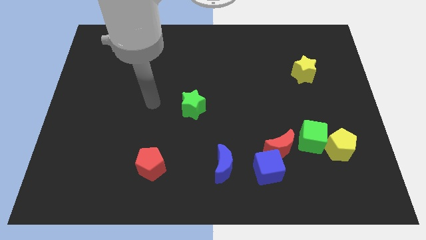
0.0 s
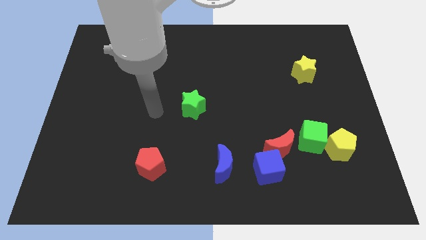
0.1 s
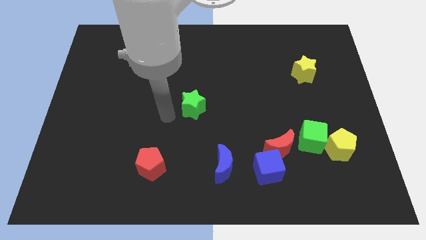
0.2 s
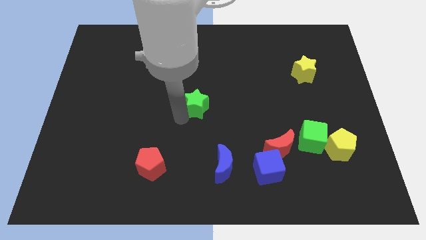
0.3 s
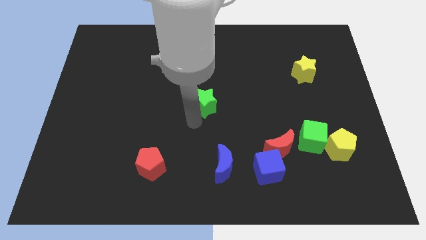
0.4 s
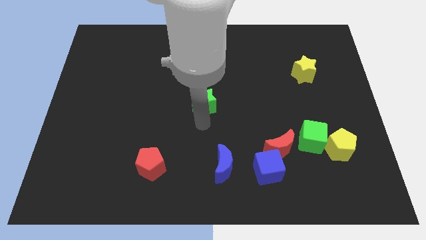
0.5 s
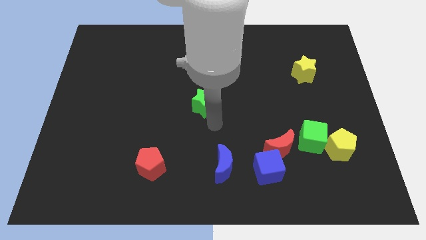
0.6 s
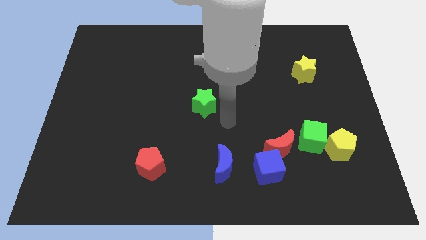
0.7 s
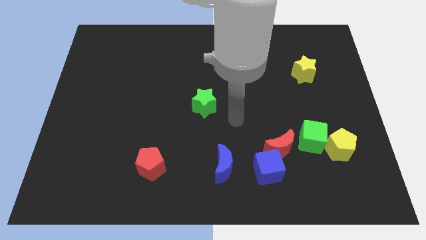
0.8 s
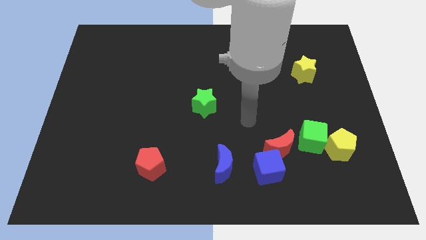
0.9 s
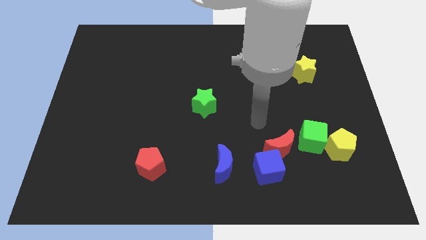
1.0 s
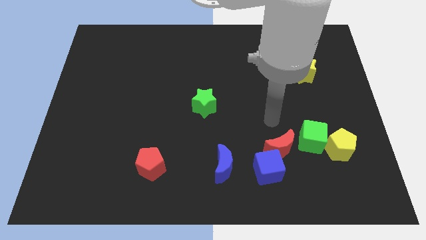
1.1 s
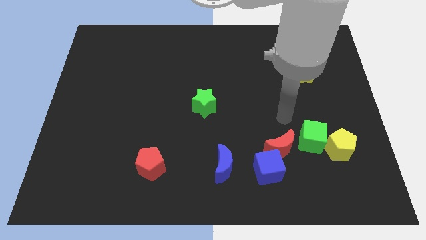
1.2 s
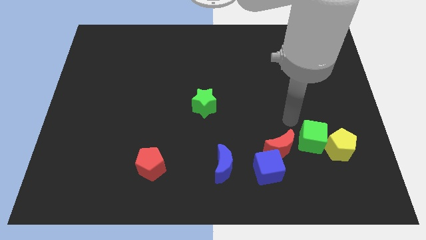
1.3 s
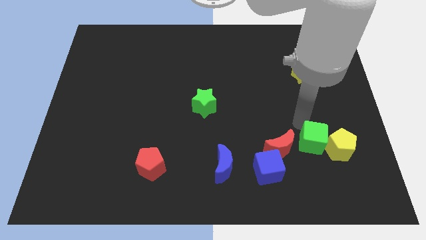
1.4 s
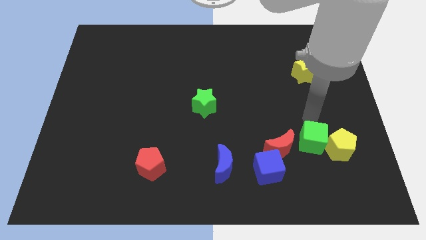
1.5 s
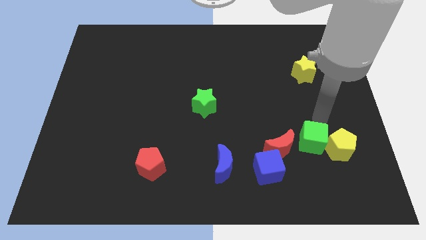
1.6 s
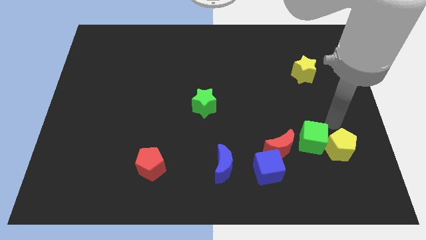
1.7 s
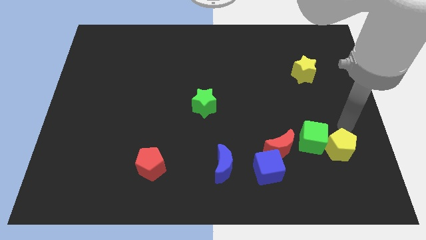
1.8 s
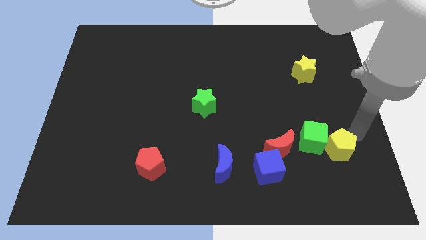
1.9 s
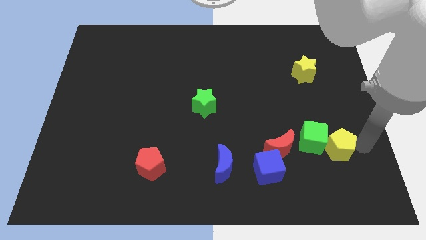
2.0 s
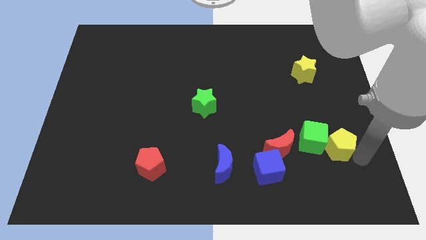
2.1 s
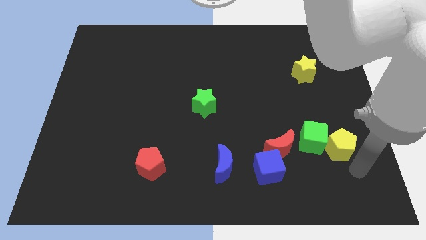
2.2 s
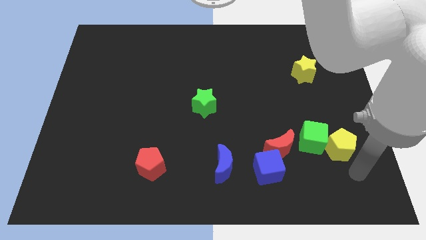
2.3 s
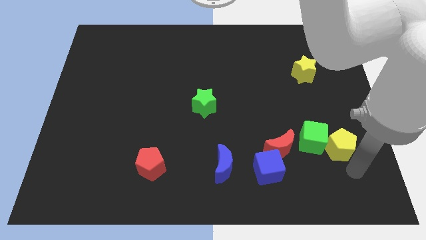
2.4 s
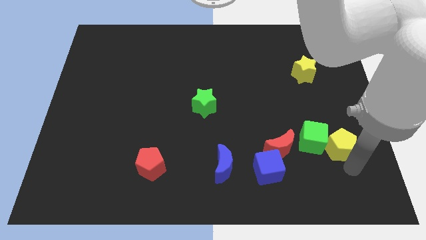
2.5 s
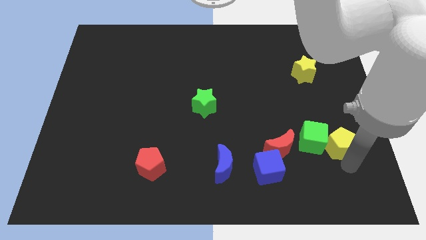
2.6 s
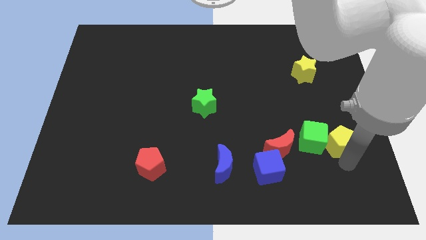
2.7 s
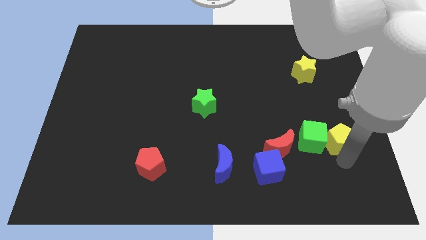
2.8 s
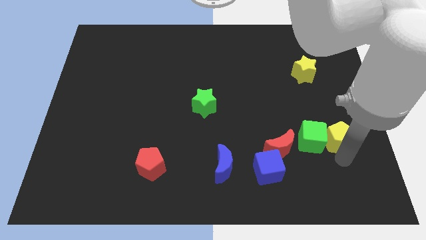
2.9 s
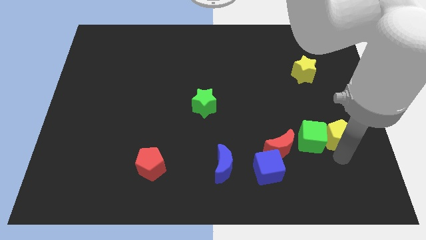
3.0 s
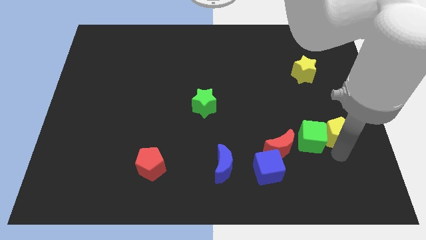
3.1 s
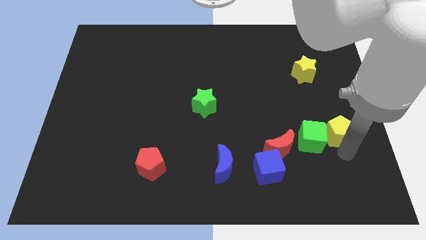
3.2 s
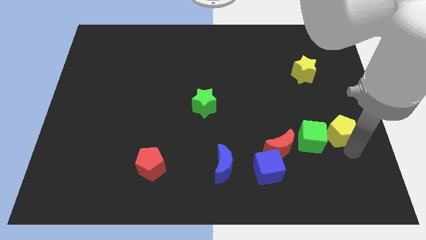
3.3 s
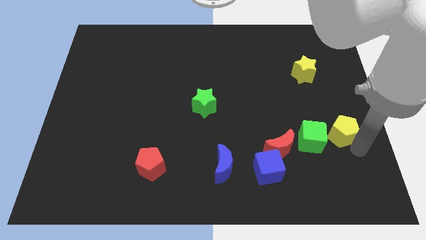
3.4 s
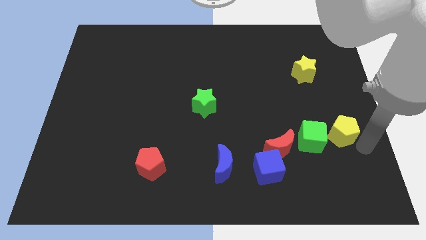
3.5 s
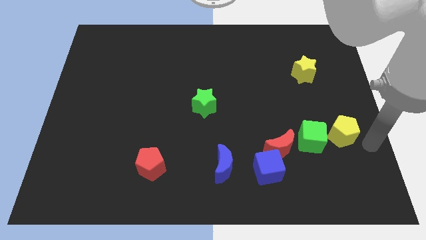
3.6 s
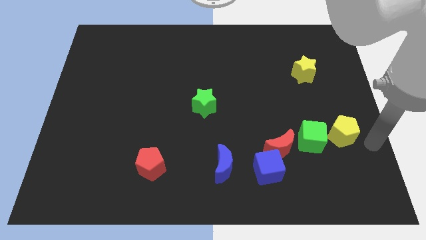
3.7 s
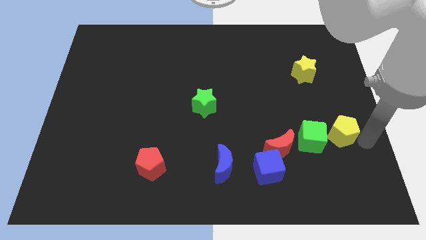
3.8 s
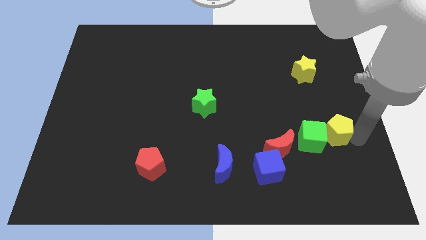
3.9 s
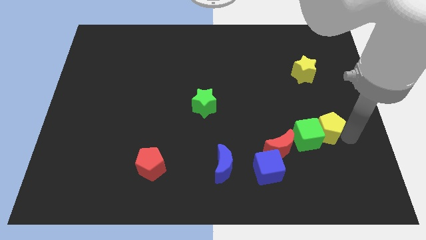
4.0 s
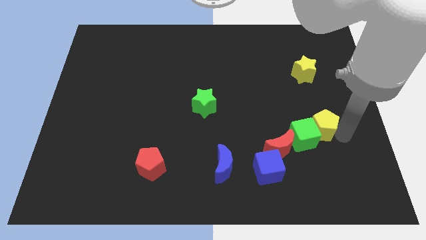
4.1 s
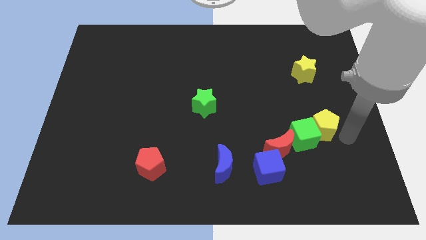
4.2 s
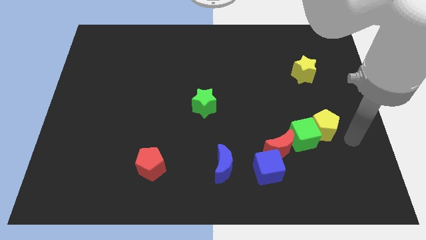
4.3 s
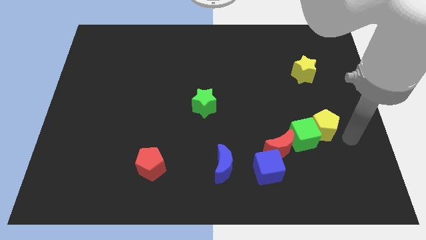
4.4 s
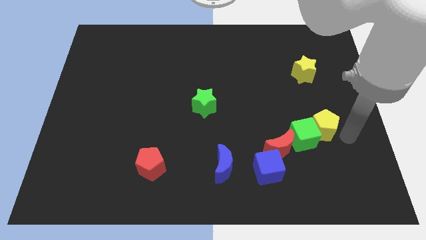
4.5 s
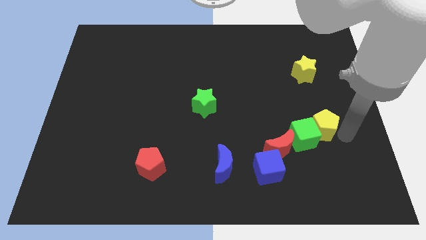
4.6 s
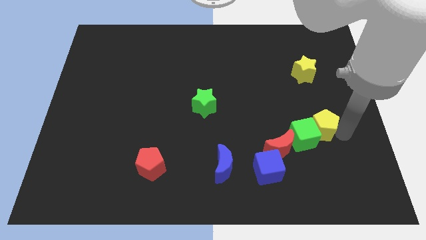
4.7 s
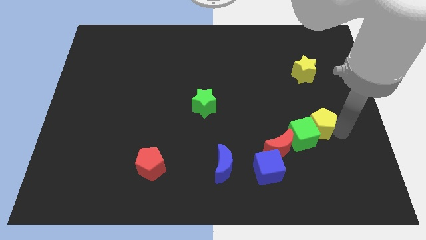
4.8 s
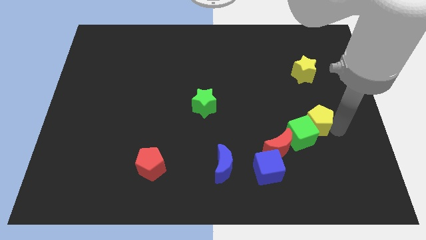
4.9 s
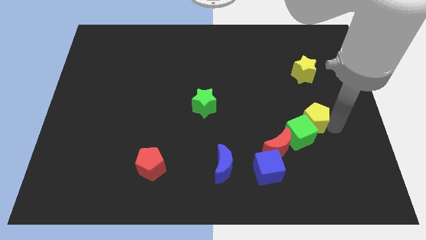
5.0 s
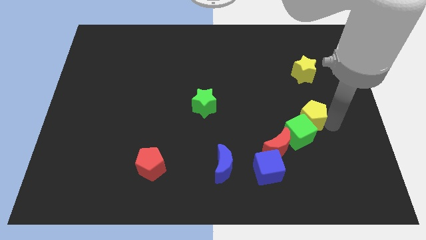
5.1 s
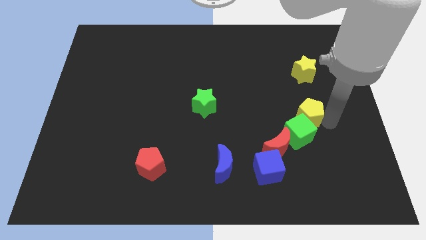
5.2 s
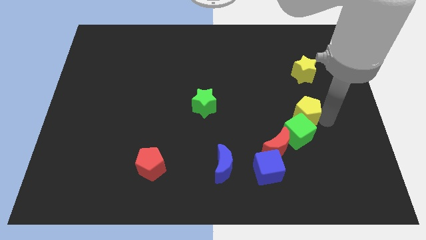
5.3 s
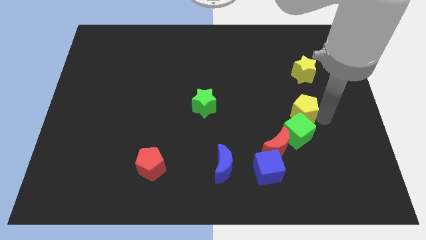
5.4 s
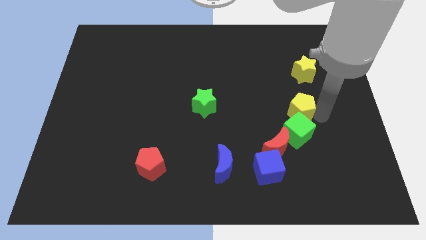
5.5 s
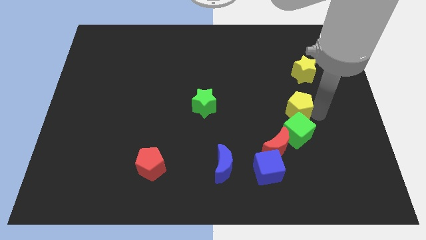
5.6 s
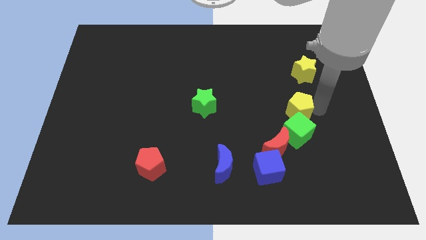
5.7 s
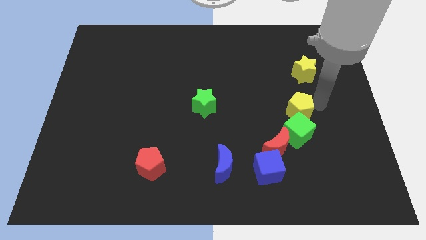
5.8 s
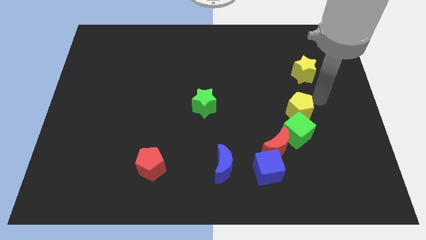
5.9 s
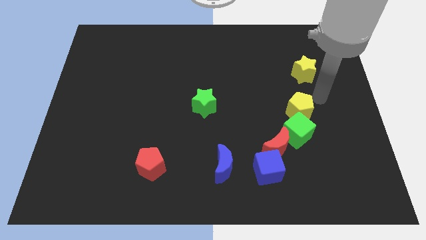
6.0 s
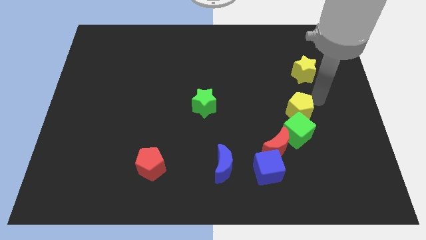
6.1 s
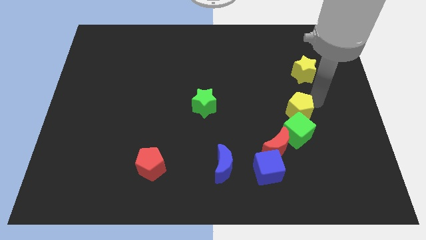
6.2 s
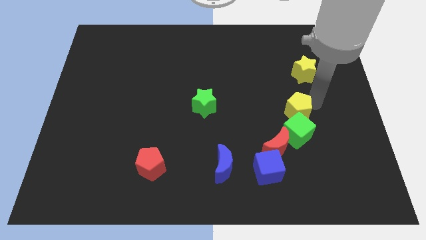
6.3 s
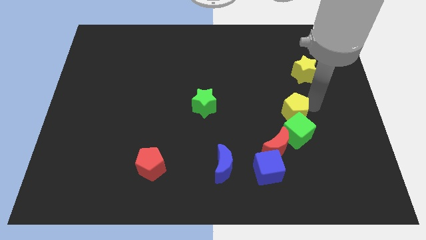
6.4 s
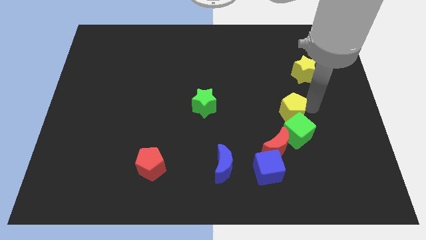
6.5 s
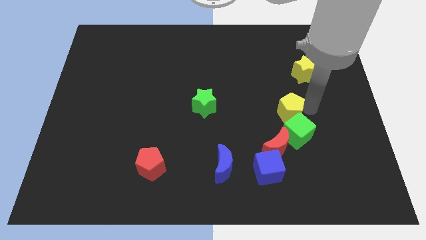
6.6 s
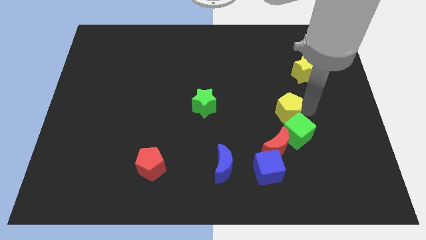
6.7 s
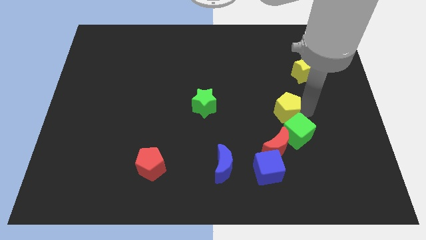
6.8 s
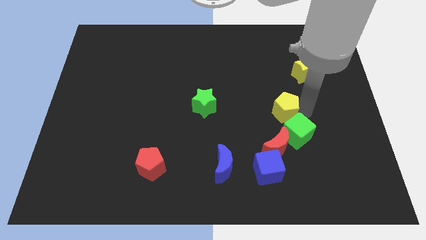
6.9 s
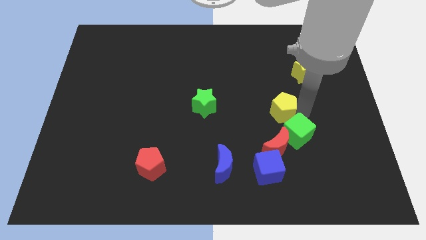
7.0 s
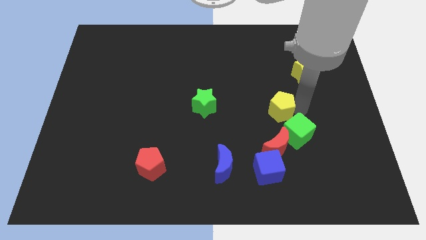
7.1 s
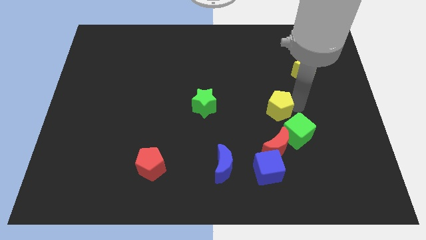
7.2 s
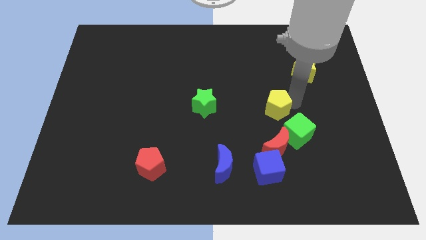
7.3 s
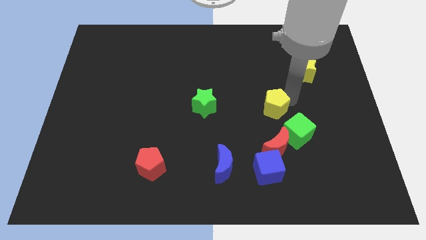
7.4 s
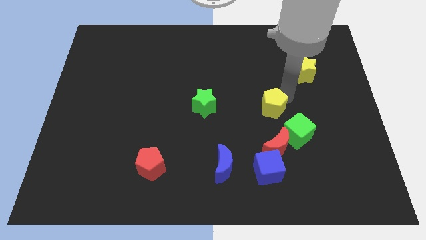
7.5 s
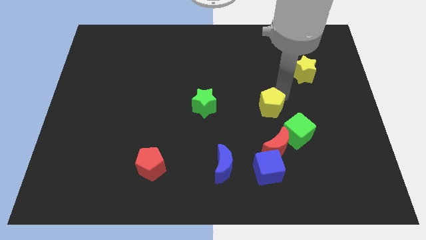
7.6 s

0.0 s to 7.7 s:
slightly move the yellow pentagon to the left

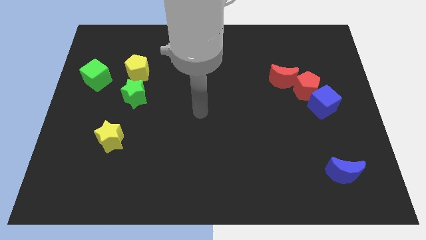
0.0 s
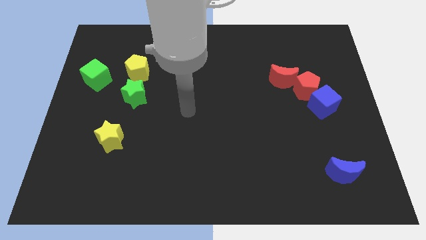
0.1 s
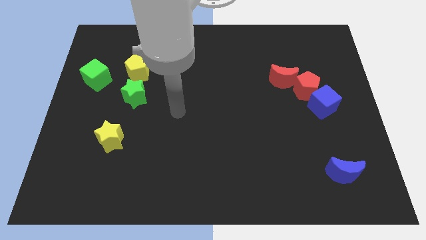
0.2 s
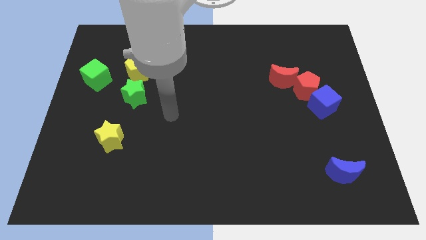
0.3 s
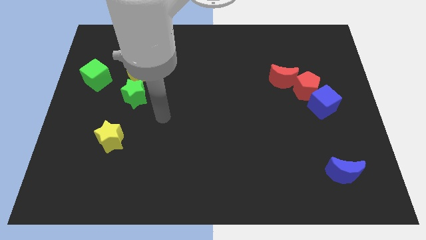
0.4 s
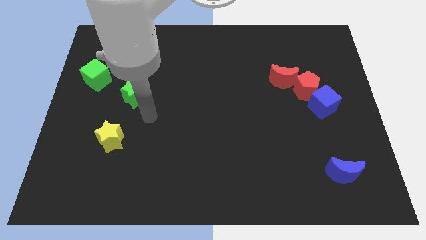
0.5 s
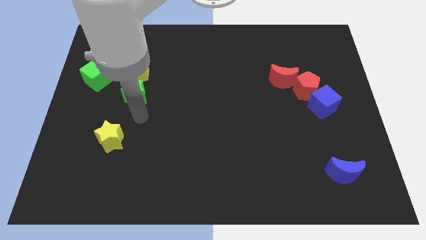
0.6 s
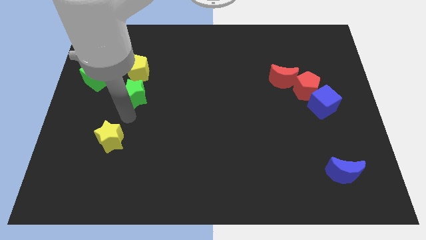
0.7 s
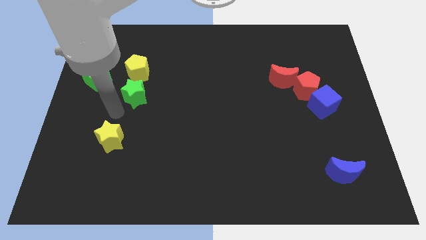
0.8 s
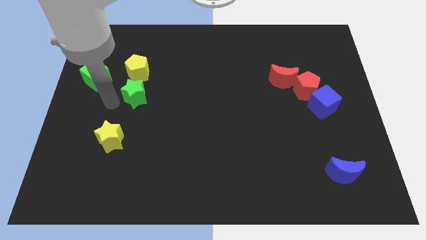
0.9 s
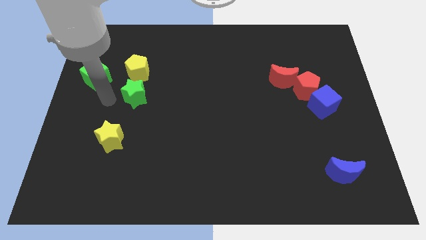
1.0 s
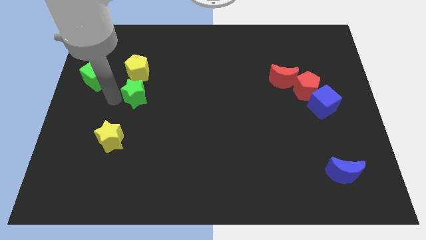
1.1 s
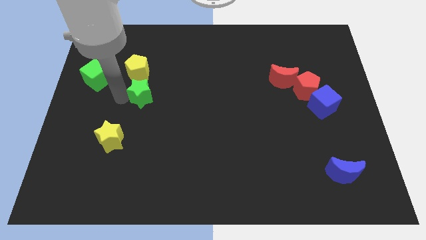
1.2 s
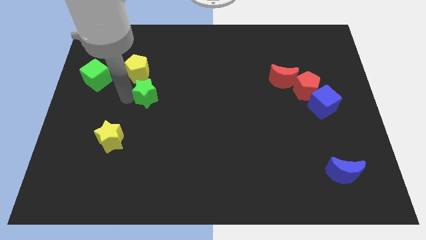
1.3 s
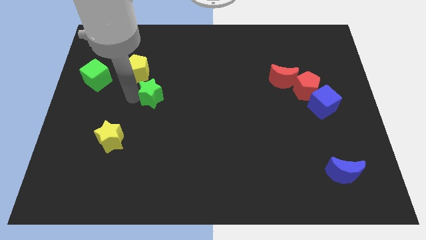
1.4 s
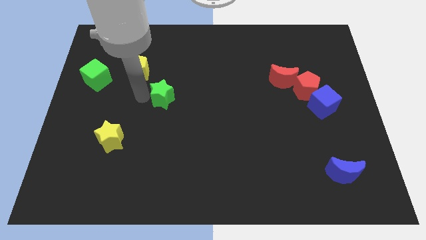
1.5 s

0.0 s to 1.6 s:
move the green star a bit right
